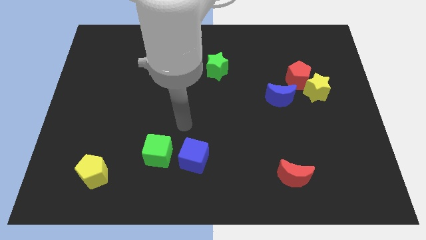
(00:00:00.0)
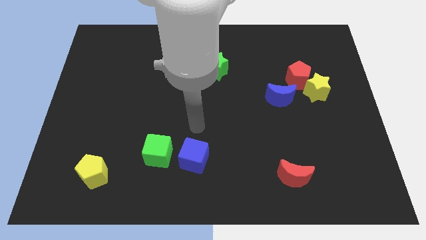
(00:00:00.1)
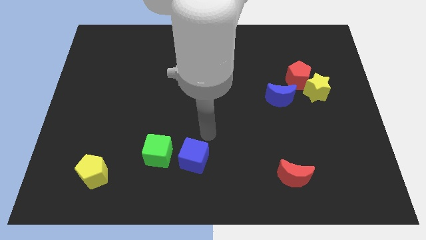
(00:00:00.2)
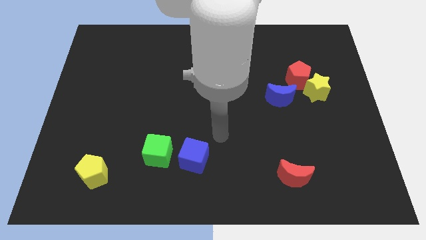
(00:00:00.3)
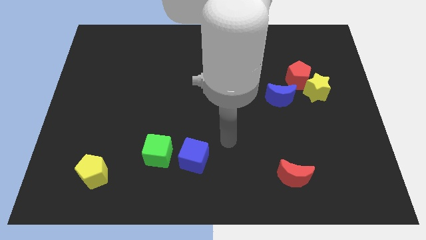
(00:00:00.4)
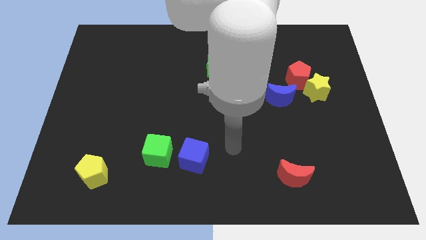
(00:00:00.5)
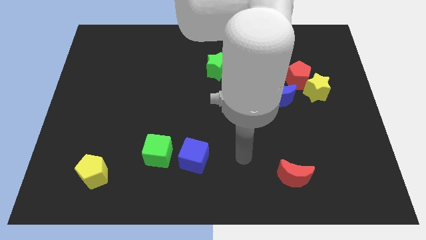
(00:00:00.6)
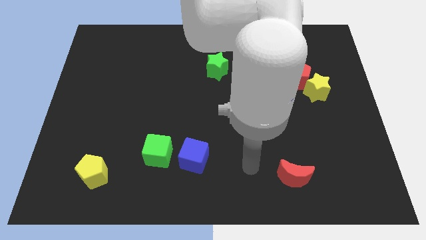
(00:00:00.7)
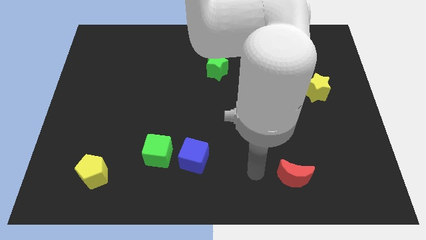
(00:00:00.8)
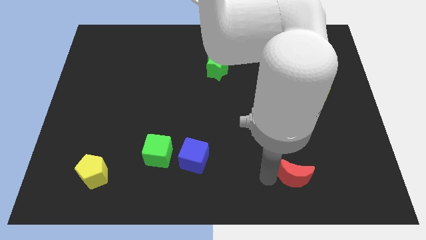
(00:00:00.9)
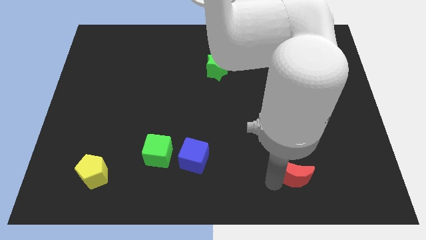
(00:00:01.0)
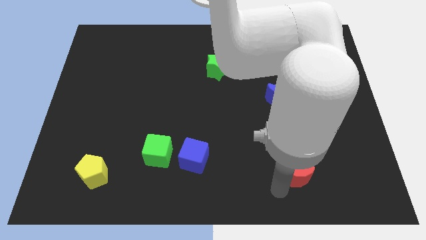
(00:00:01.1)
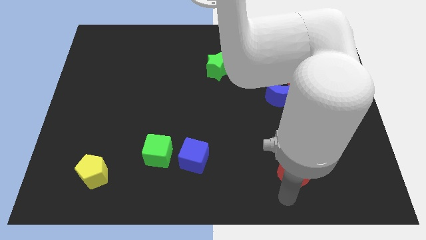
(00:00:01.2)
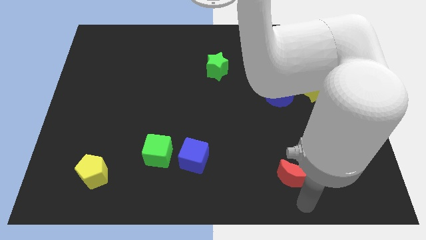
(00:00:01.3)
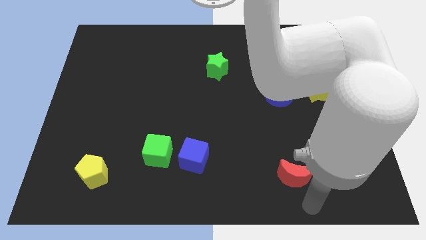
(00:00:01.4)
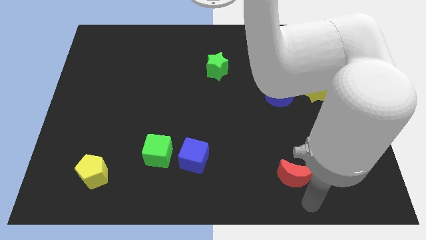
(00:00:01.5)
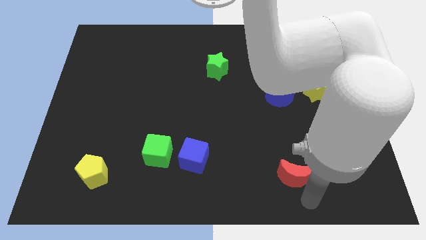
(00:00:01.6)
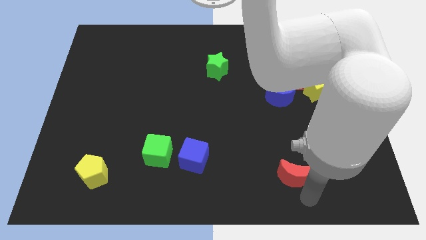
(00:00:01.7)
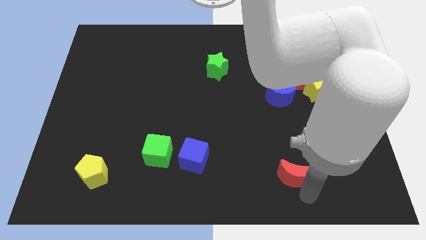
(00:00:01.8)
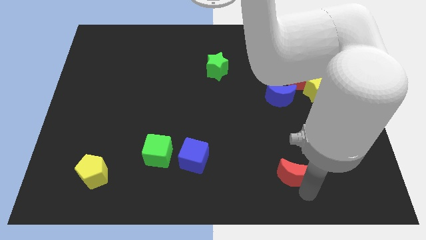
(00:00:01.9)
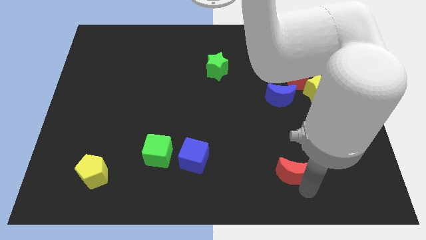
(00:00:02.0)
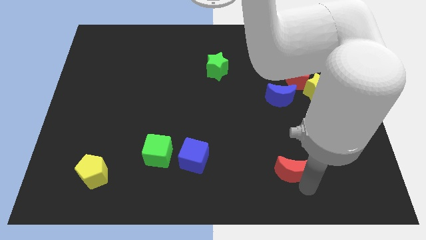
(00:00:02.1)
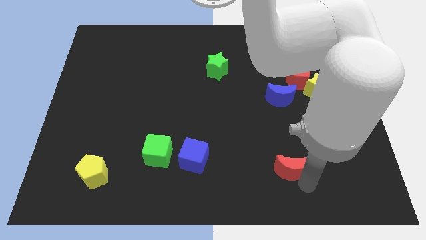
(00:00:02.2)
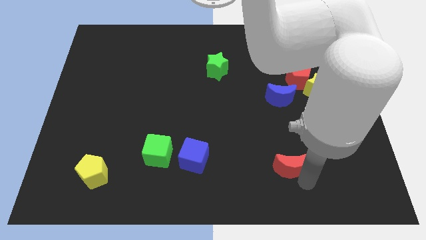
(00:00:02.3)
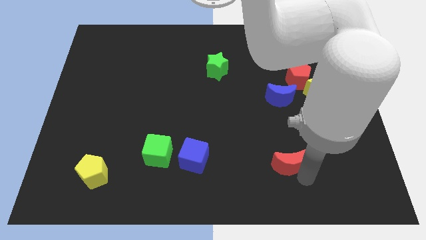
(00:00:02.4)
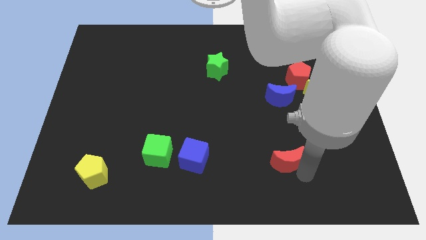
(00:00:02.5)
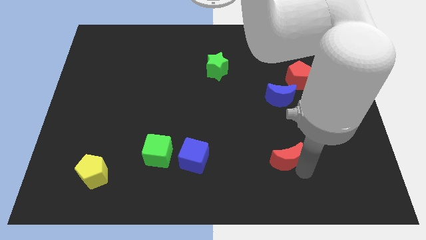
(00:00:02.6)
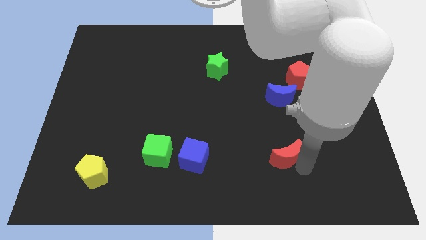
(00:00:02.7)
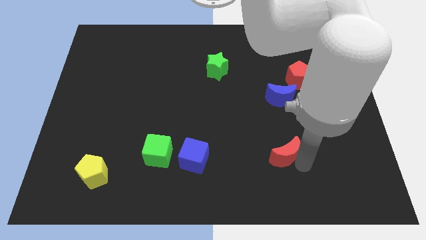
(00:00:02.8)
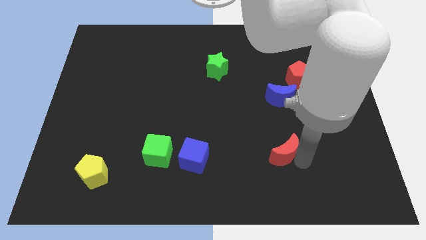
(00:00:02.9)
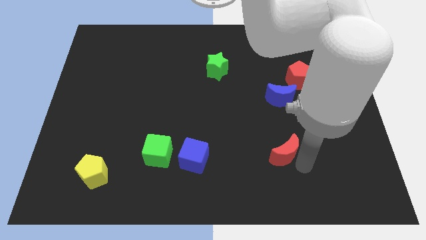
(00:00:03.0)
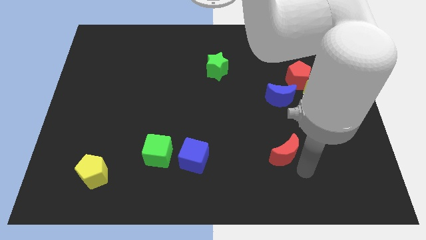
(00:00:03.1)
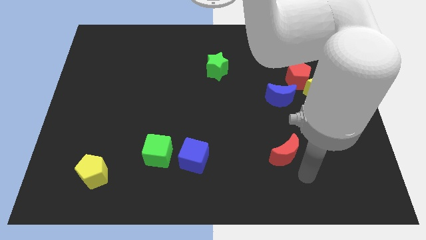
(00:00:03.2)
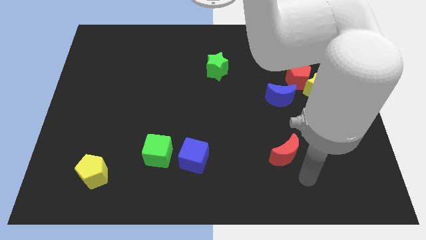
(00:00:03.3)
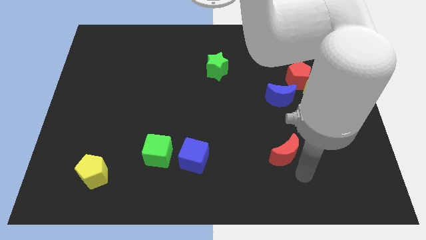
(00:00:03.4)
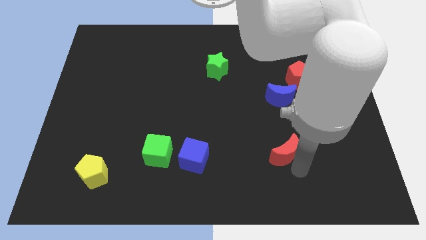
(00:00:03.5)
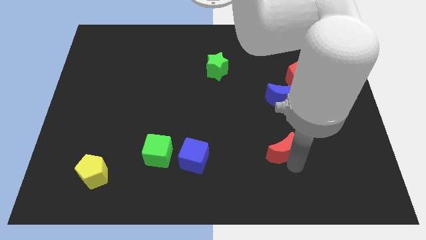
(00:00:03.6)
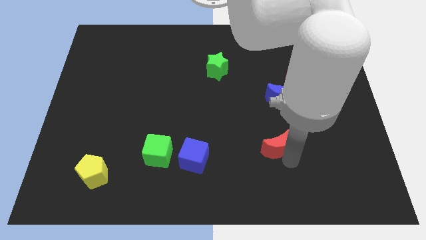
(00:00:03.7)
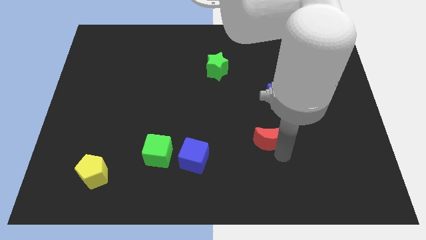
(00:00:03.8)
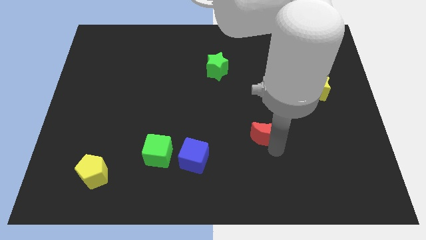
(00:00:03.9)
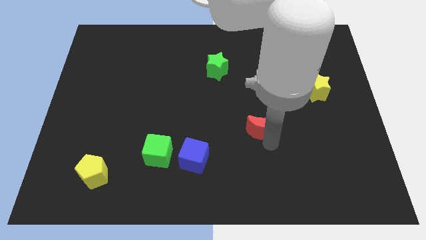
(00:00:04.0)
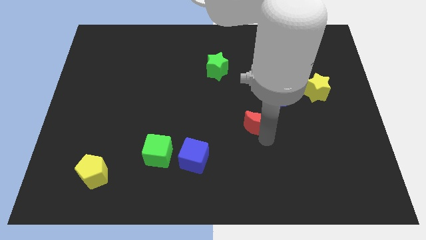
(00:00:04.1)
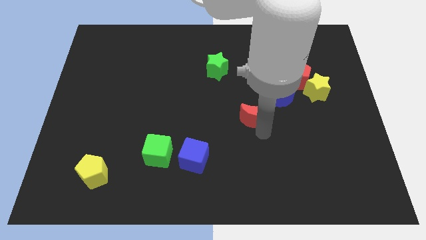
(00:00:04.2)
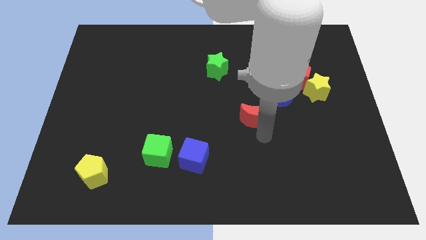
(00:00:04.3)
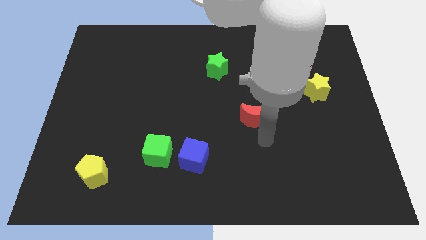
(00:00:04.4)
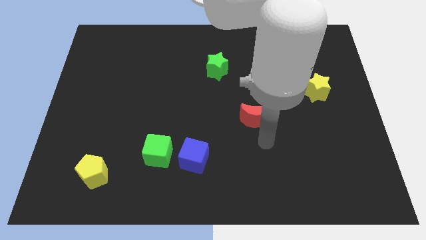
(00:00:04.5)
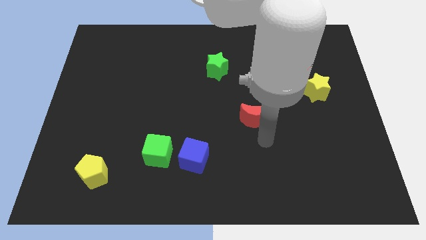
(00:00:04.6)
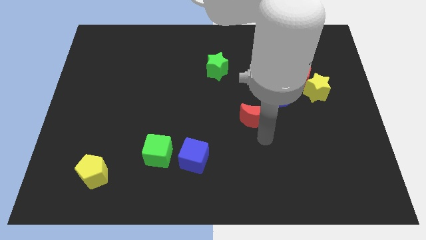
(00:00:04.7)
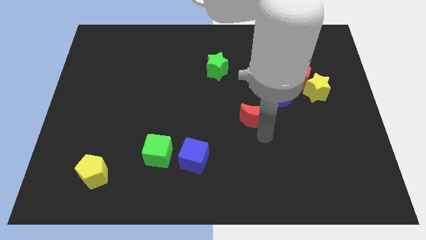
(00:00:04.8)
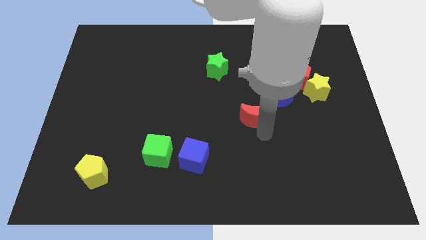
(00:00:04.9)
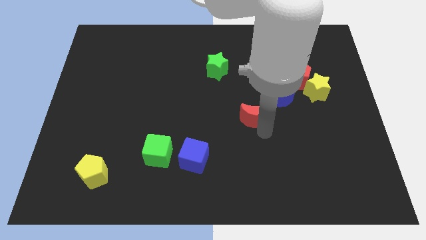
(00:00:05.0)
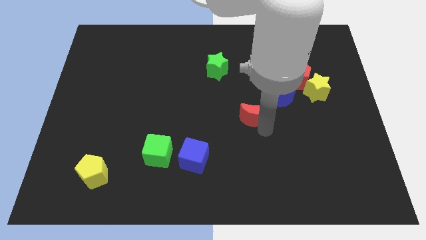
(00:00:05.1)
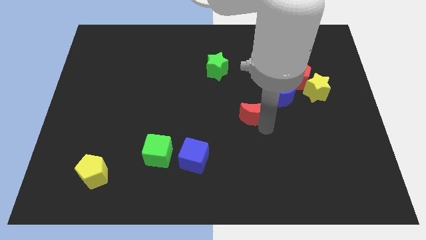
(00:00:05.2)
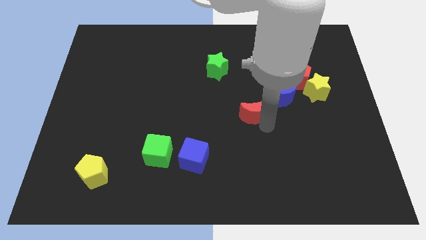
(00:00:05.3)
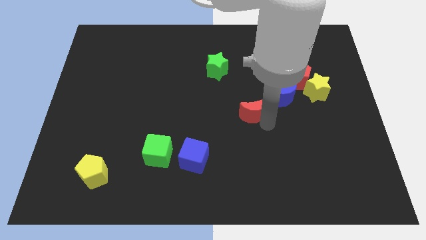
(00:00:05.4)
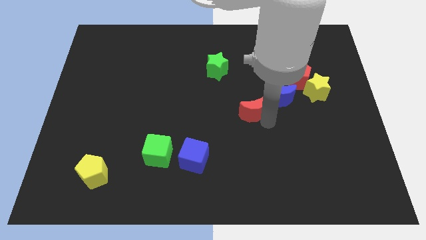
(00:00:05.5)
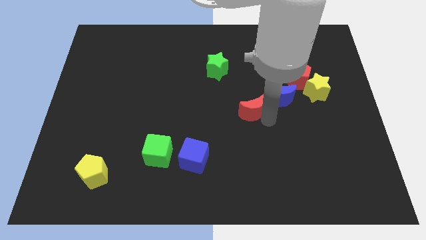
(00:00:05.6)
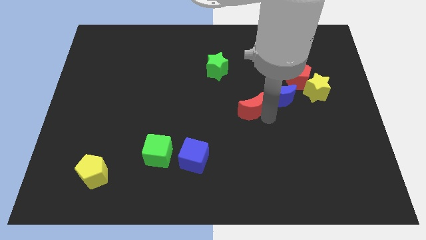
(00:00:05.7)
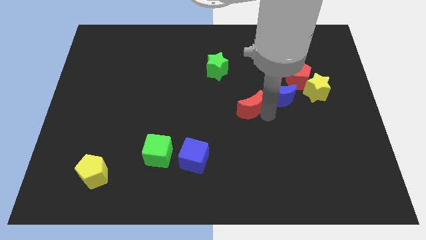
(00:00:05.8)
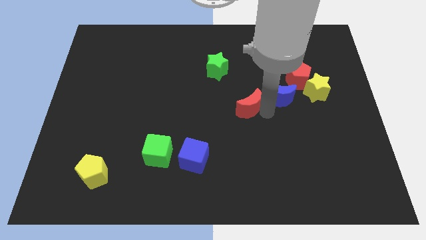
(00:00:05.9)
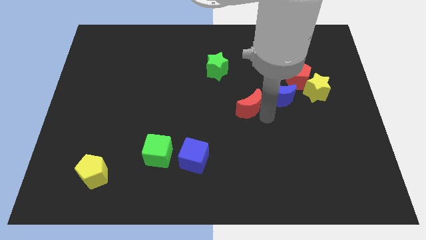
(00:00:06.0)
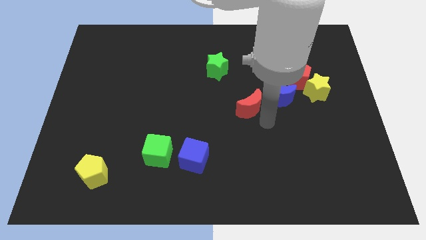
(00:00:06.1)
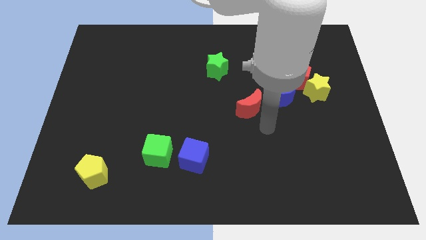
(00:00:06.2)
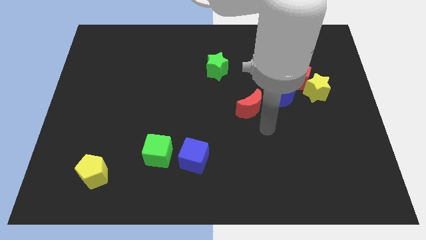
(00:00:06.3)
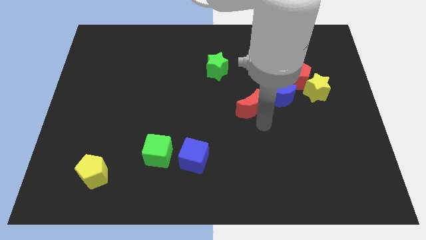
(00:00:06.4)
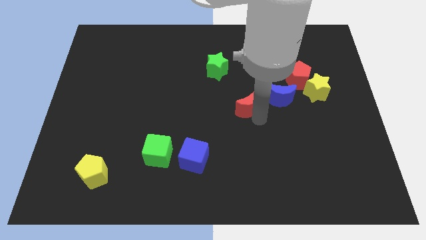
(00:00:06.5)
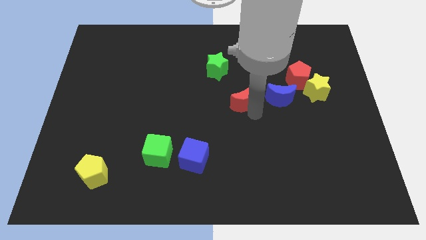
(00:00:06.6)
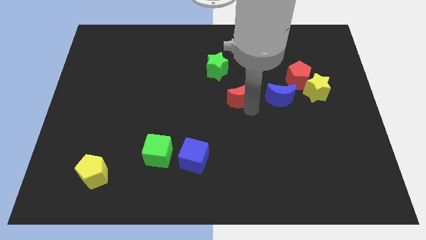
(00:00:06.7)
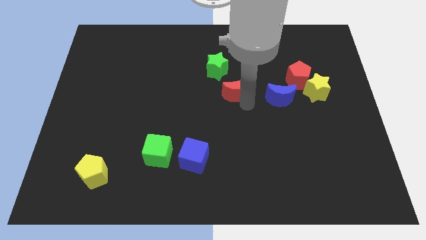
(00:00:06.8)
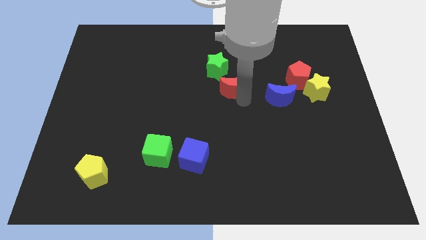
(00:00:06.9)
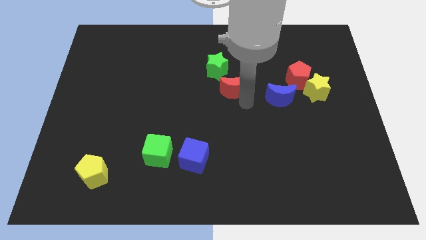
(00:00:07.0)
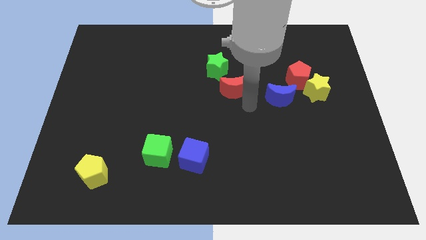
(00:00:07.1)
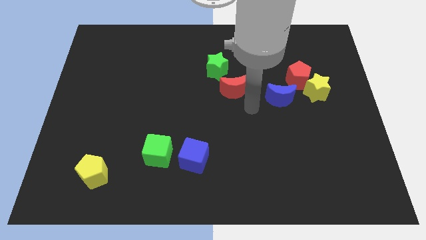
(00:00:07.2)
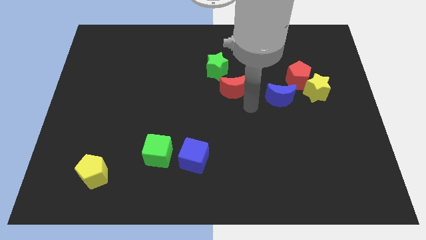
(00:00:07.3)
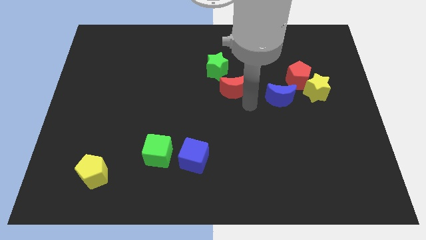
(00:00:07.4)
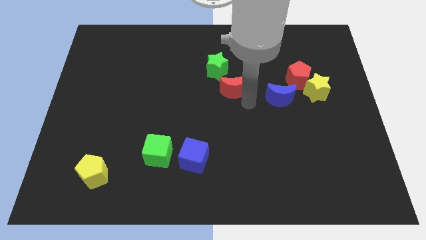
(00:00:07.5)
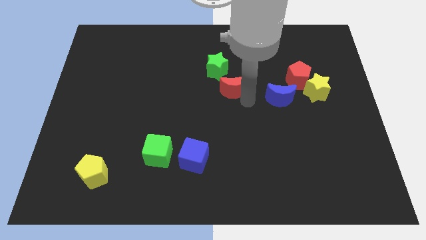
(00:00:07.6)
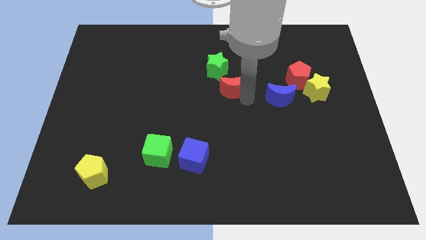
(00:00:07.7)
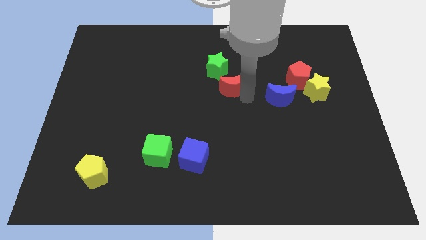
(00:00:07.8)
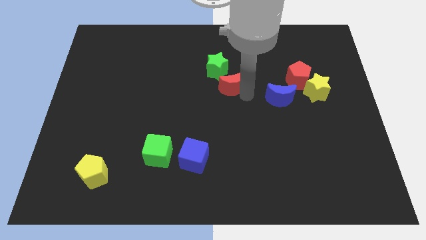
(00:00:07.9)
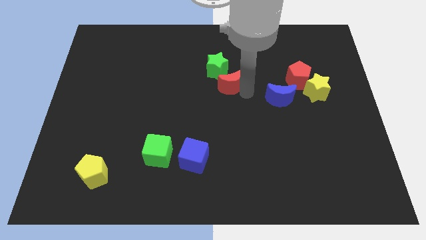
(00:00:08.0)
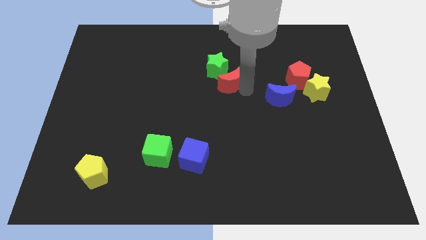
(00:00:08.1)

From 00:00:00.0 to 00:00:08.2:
move the red moon close to the green star
